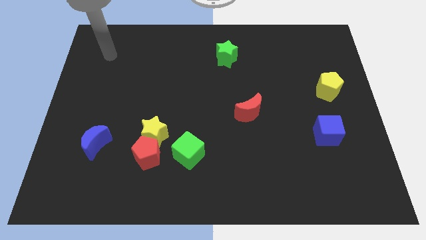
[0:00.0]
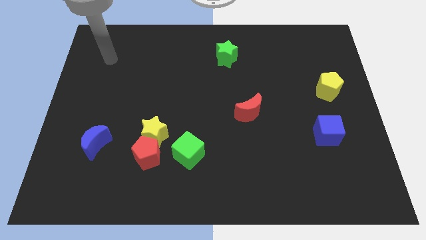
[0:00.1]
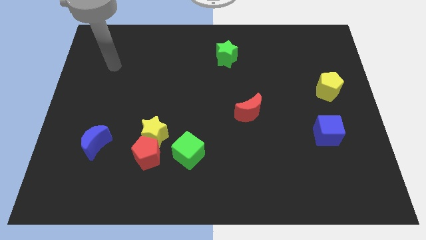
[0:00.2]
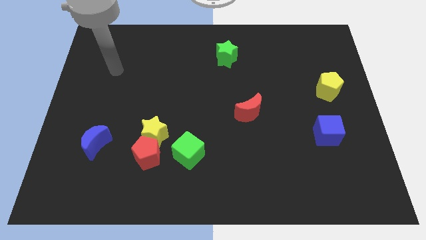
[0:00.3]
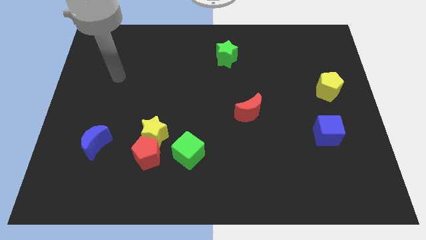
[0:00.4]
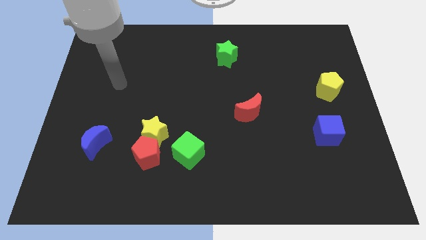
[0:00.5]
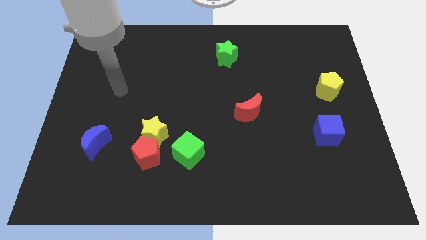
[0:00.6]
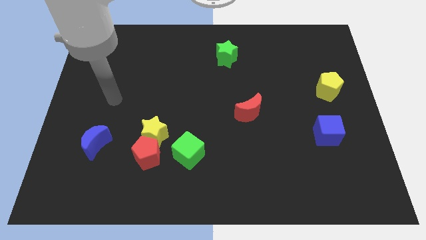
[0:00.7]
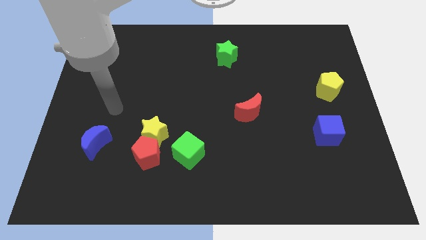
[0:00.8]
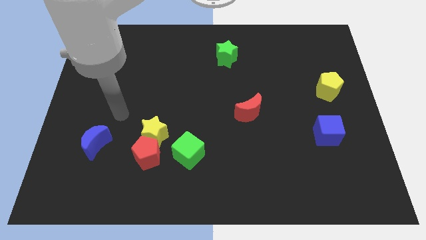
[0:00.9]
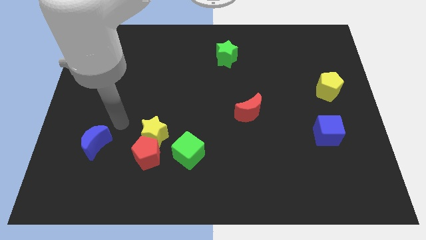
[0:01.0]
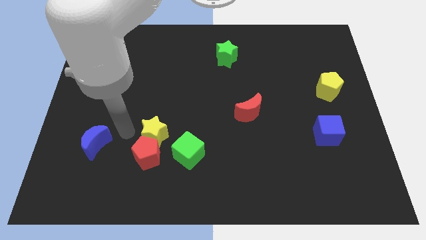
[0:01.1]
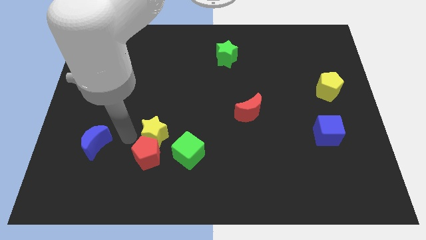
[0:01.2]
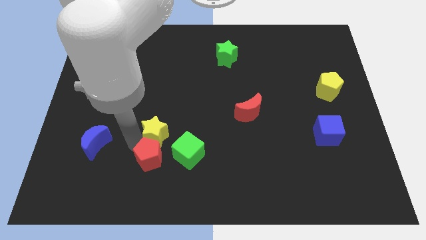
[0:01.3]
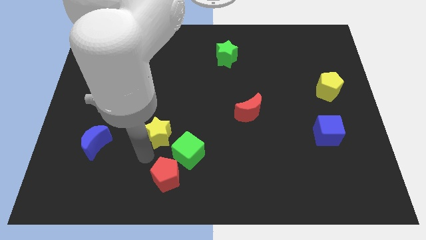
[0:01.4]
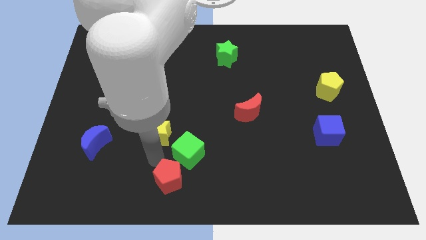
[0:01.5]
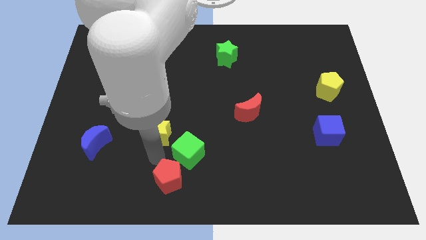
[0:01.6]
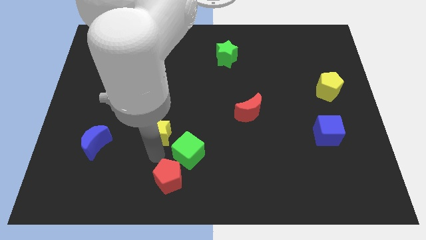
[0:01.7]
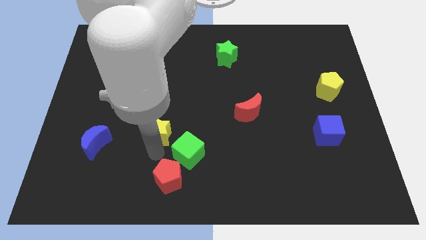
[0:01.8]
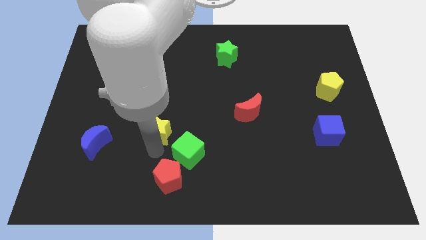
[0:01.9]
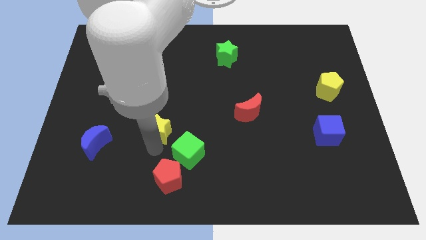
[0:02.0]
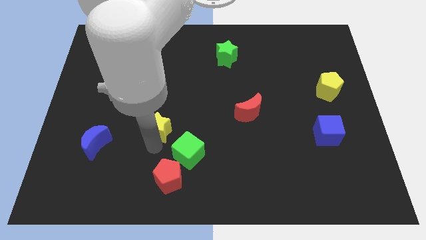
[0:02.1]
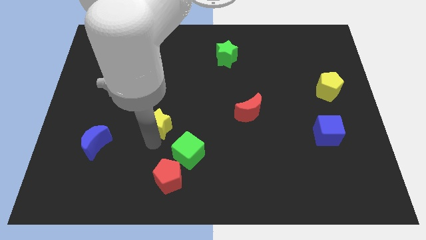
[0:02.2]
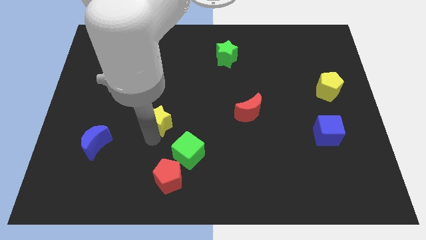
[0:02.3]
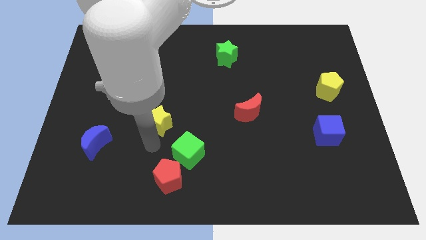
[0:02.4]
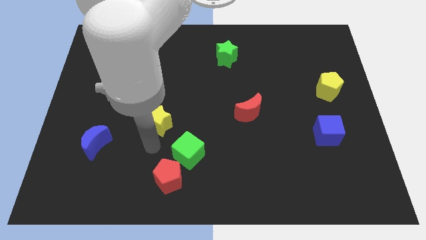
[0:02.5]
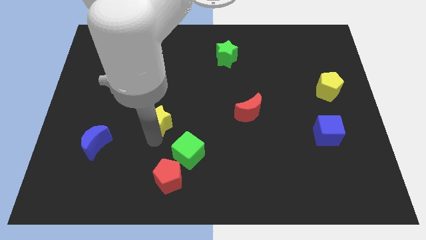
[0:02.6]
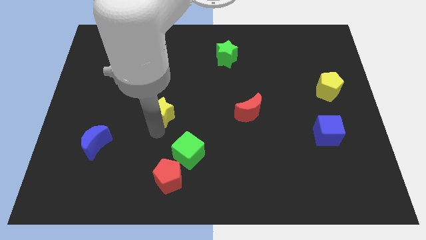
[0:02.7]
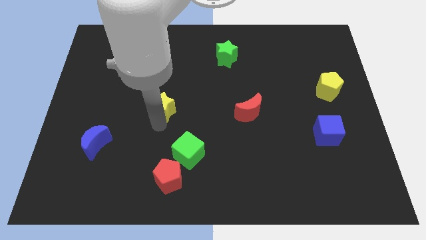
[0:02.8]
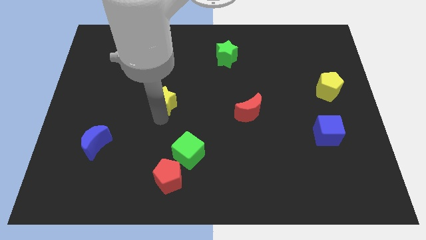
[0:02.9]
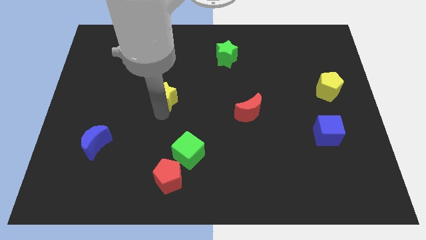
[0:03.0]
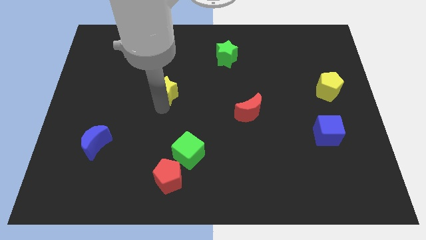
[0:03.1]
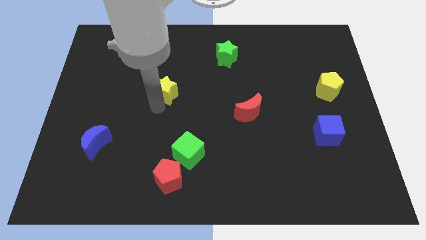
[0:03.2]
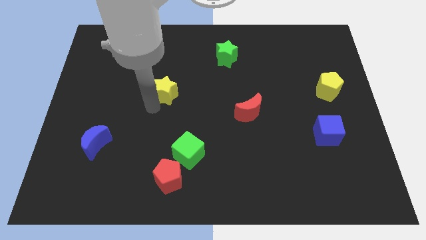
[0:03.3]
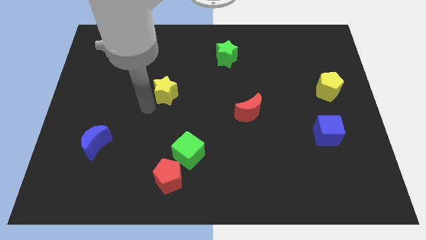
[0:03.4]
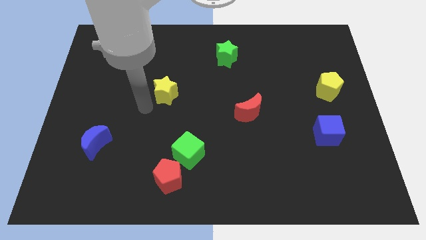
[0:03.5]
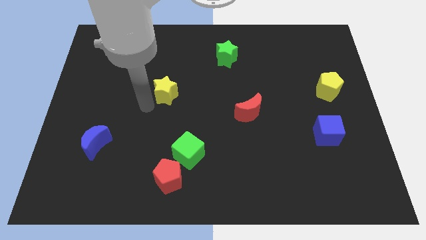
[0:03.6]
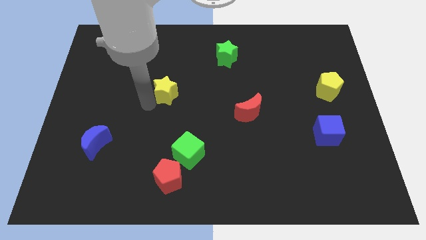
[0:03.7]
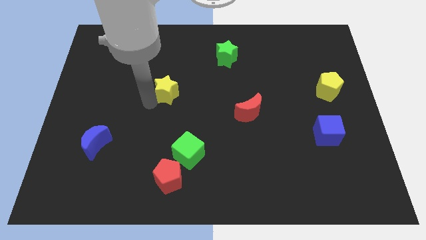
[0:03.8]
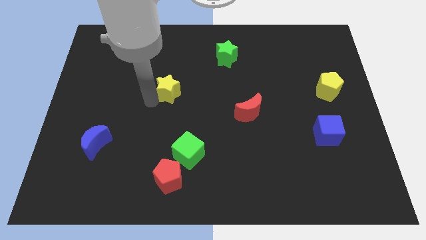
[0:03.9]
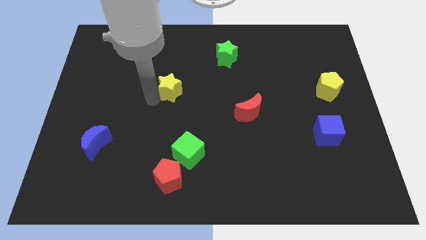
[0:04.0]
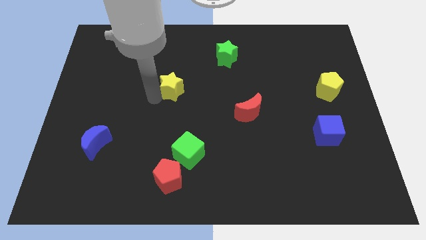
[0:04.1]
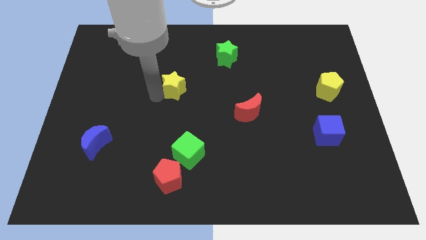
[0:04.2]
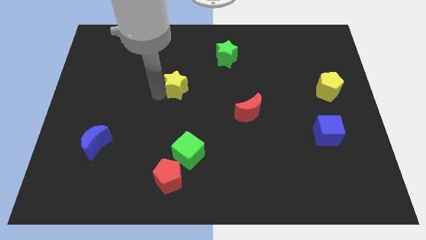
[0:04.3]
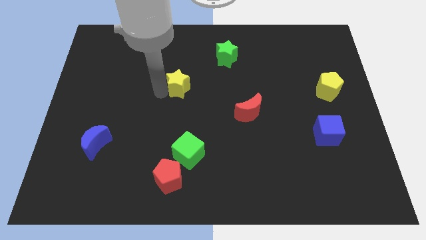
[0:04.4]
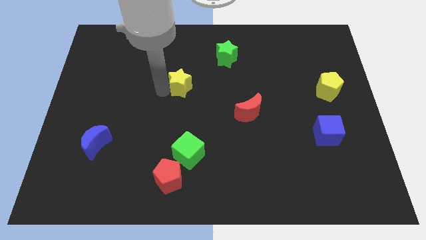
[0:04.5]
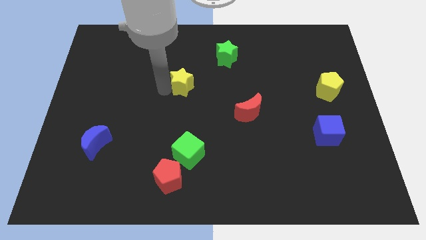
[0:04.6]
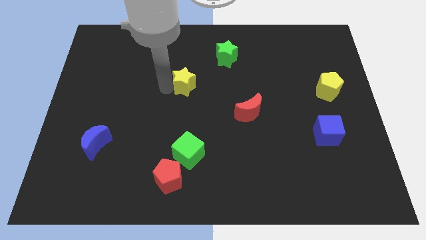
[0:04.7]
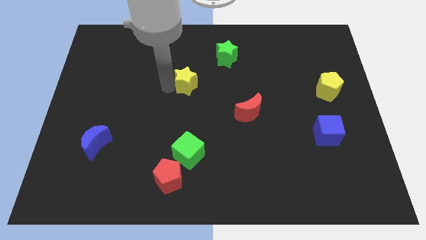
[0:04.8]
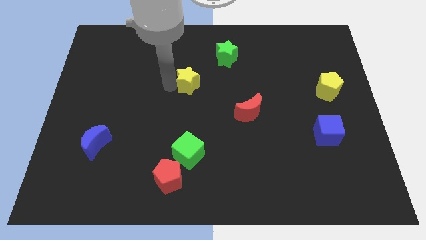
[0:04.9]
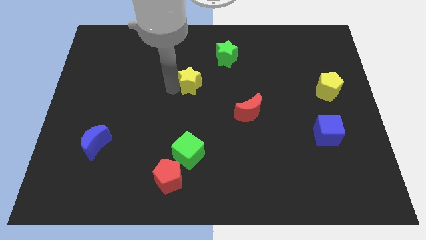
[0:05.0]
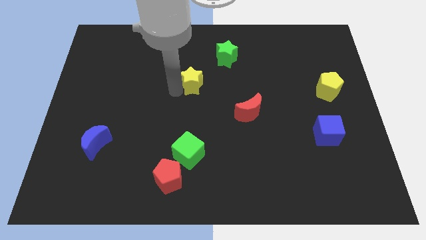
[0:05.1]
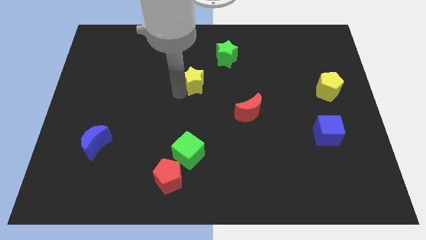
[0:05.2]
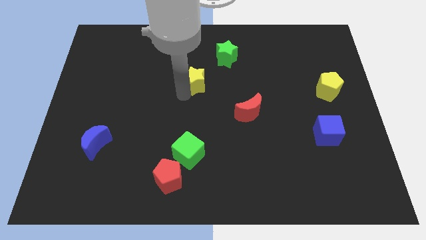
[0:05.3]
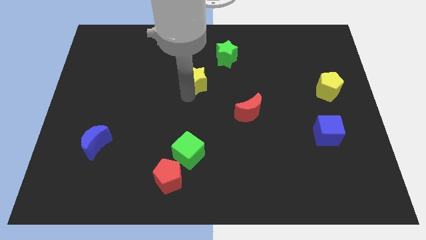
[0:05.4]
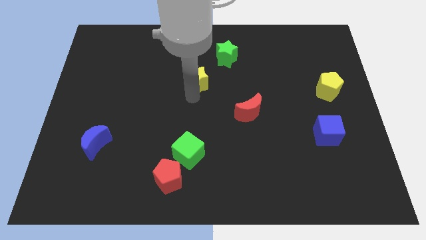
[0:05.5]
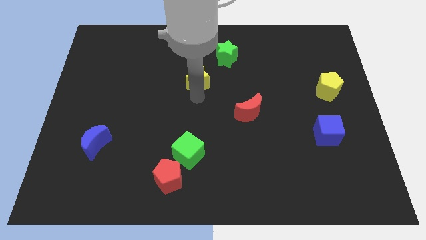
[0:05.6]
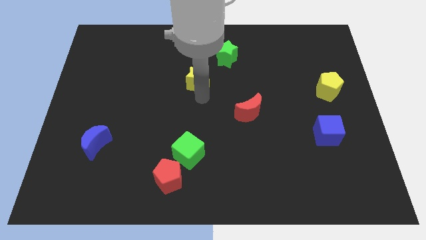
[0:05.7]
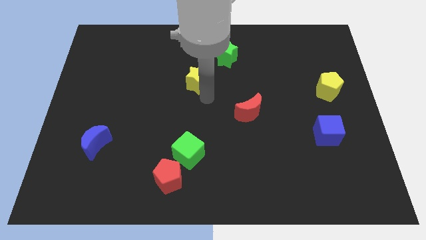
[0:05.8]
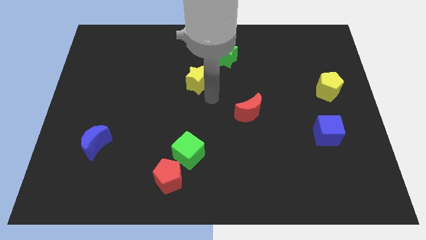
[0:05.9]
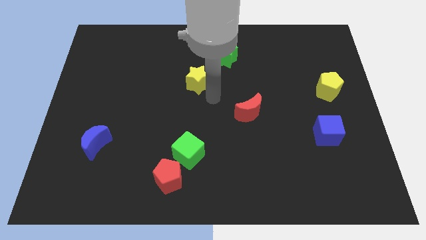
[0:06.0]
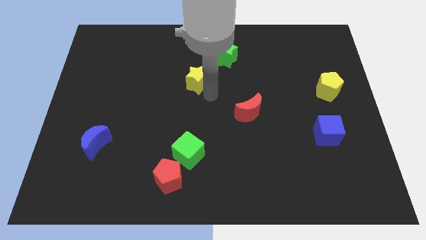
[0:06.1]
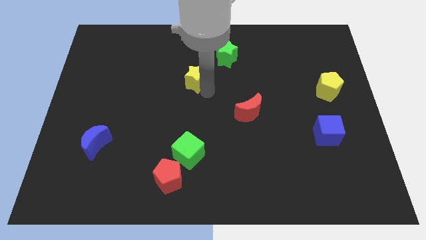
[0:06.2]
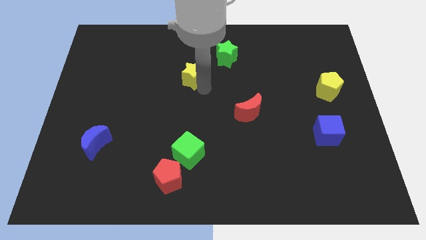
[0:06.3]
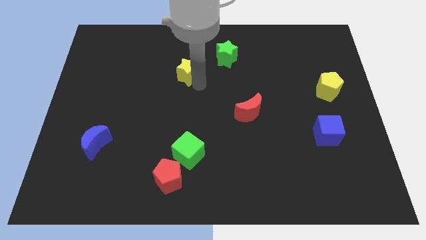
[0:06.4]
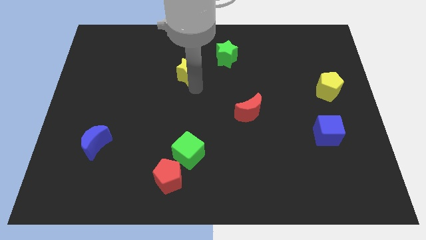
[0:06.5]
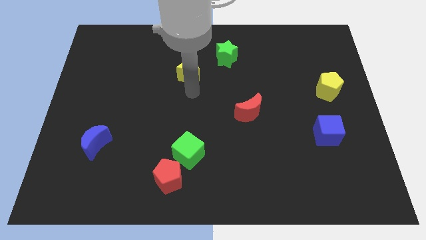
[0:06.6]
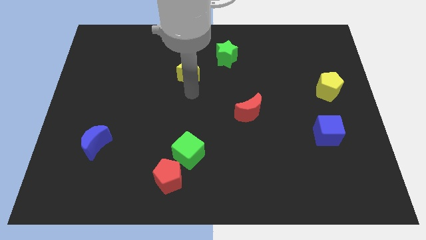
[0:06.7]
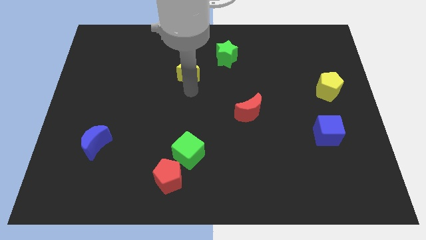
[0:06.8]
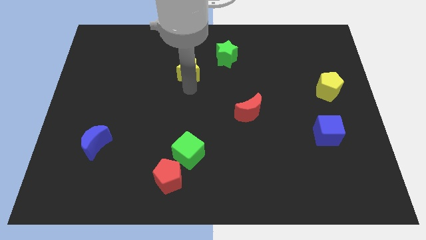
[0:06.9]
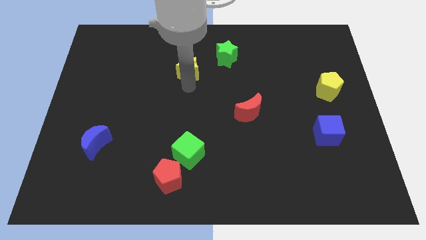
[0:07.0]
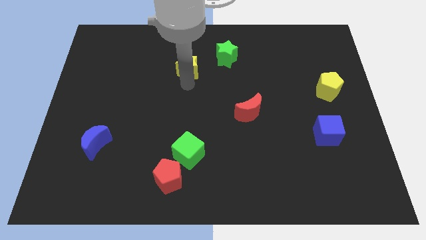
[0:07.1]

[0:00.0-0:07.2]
push the yellow star just left of the green star
